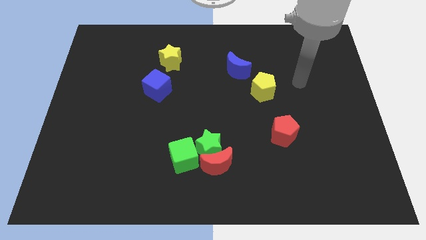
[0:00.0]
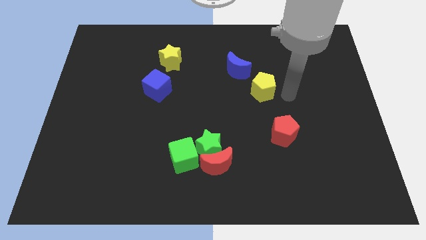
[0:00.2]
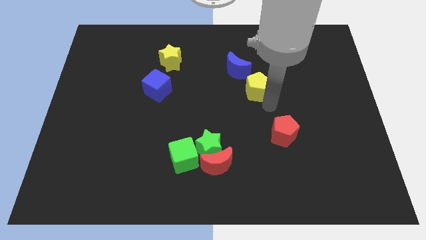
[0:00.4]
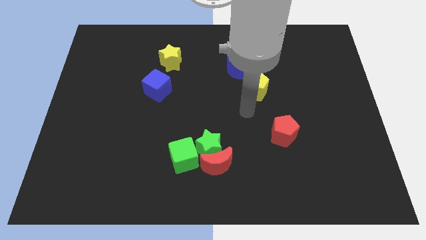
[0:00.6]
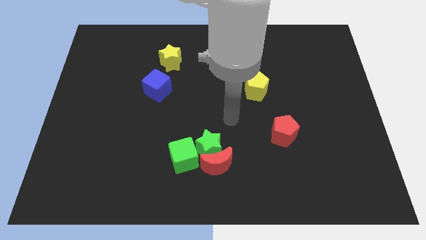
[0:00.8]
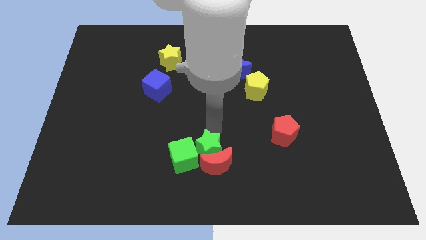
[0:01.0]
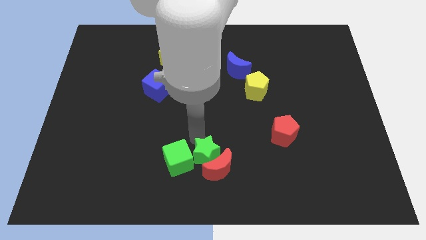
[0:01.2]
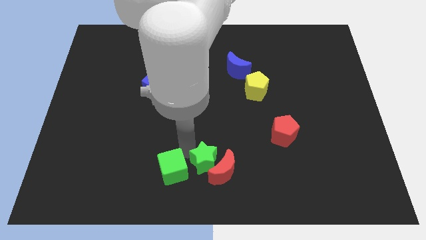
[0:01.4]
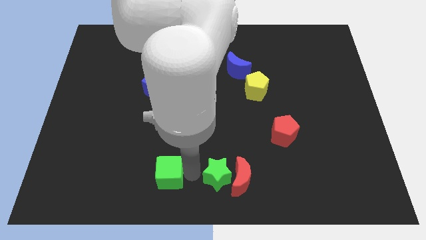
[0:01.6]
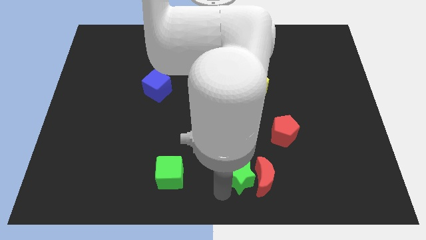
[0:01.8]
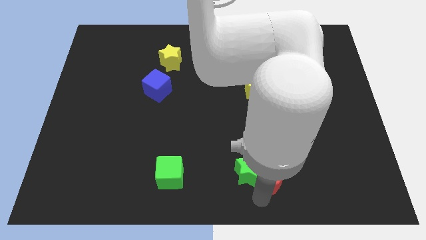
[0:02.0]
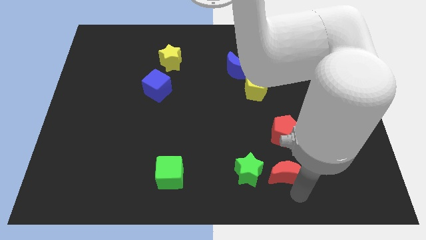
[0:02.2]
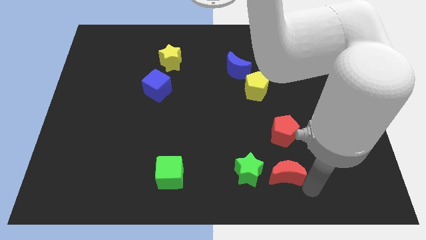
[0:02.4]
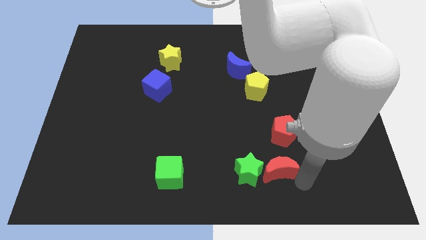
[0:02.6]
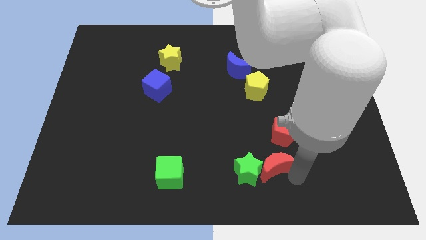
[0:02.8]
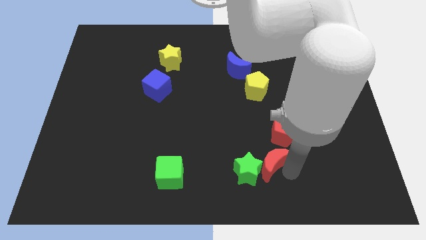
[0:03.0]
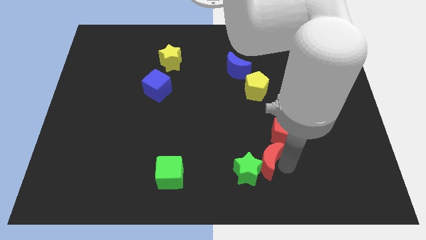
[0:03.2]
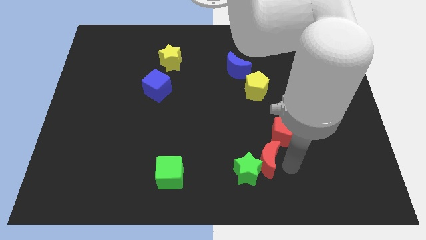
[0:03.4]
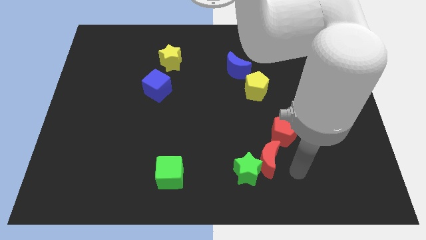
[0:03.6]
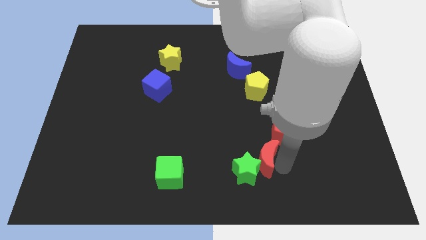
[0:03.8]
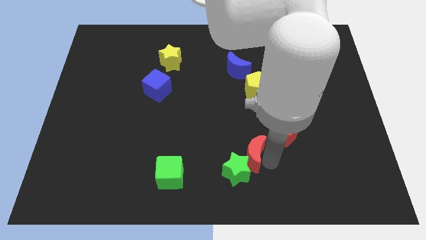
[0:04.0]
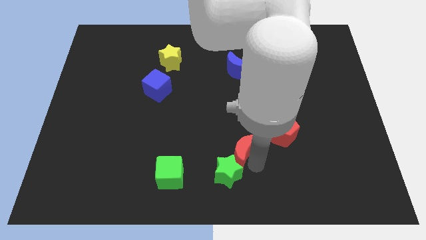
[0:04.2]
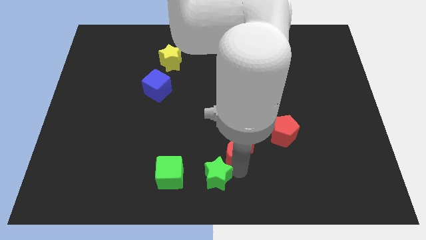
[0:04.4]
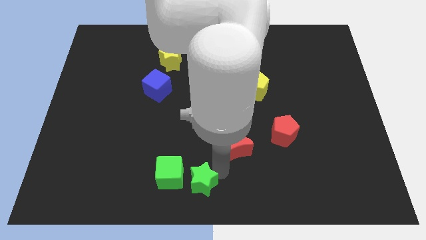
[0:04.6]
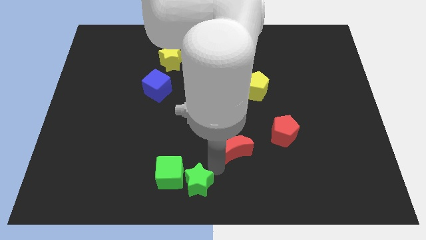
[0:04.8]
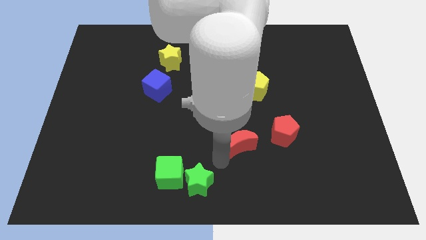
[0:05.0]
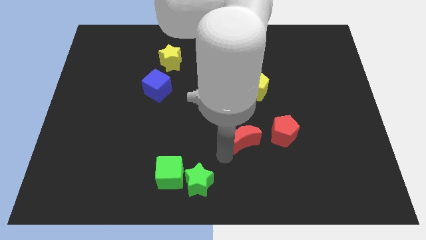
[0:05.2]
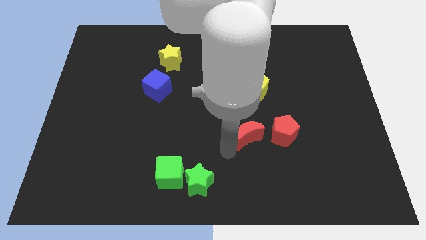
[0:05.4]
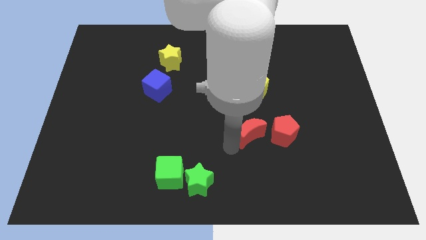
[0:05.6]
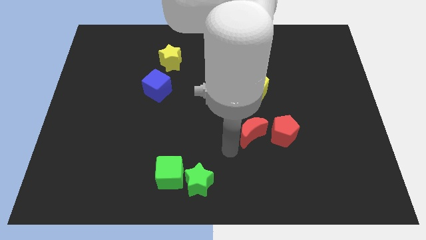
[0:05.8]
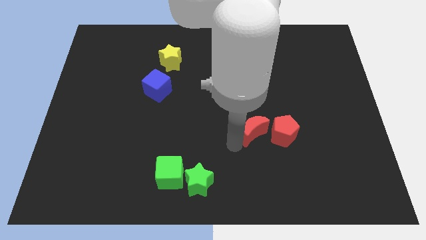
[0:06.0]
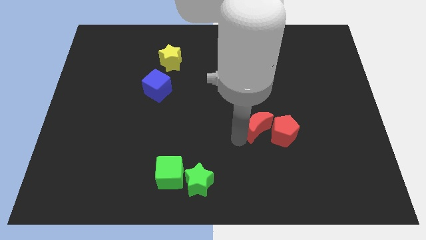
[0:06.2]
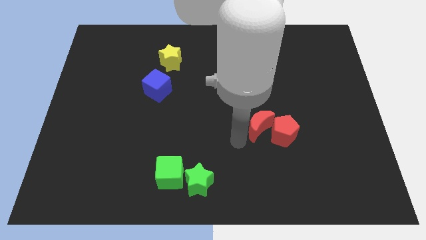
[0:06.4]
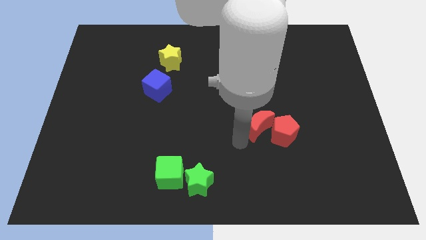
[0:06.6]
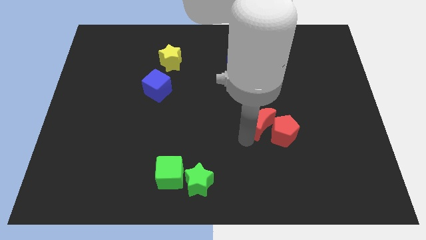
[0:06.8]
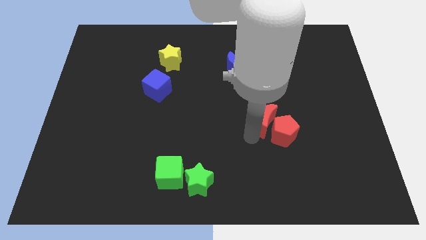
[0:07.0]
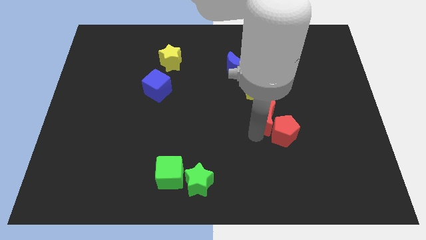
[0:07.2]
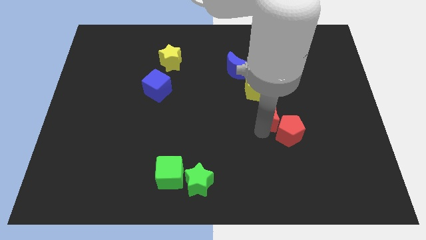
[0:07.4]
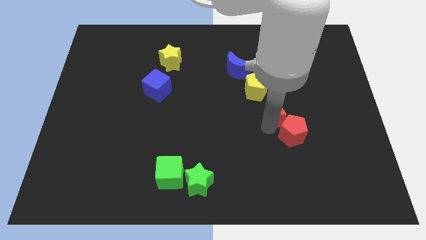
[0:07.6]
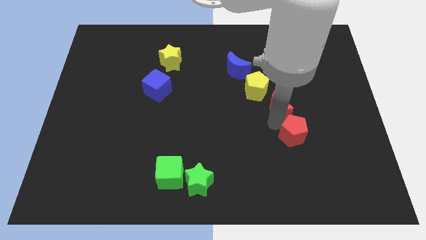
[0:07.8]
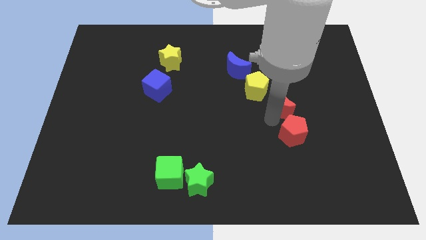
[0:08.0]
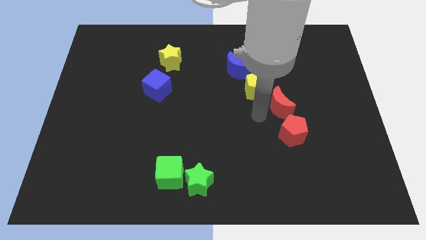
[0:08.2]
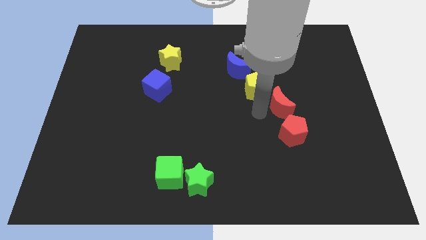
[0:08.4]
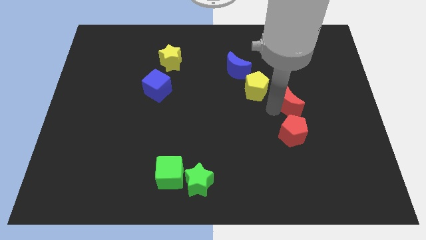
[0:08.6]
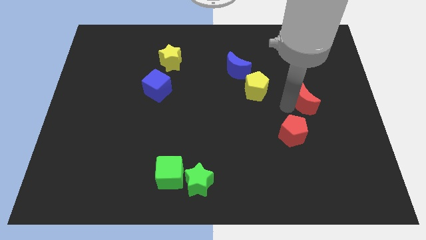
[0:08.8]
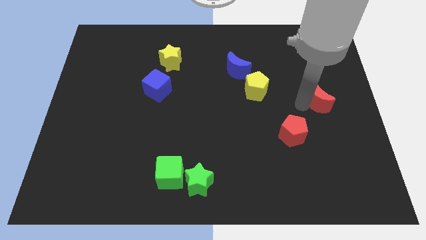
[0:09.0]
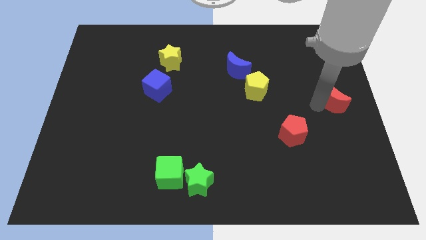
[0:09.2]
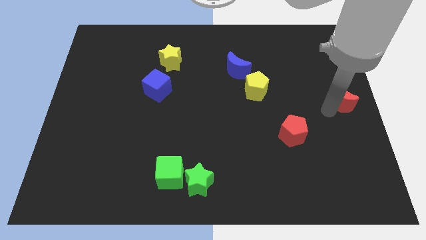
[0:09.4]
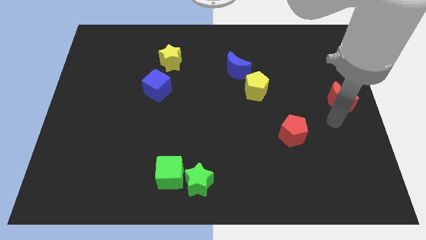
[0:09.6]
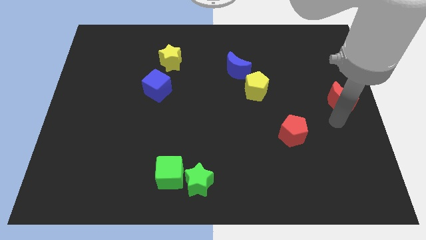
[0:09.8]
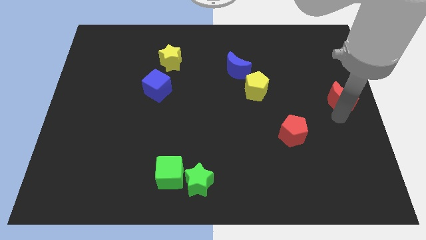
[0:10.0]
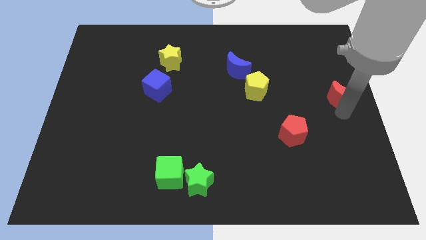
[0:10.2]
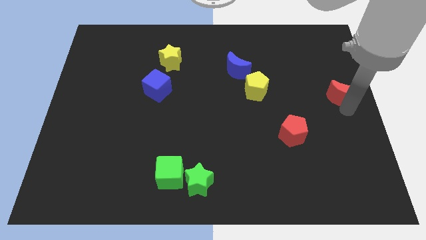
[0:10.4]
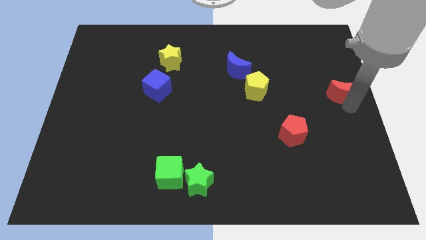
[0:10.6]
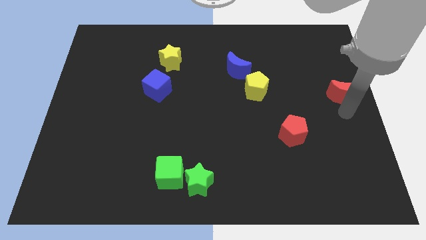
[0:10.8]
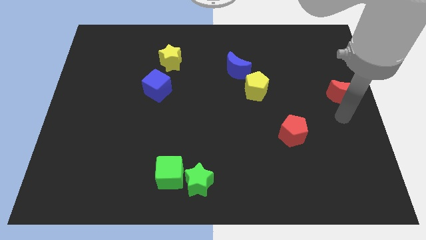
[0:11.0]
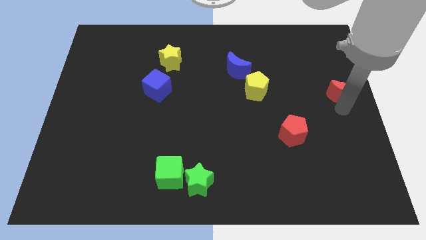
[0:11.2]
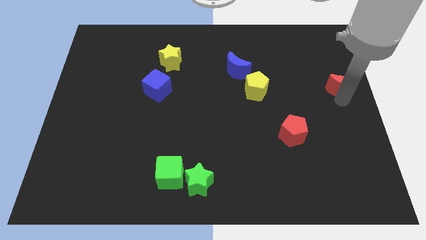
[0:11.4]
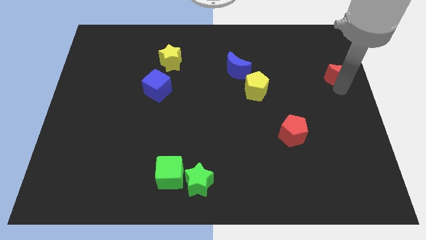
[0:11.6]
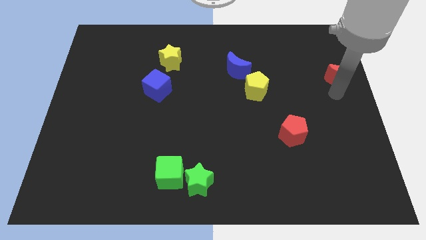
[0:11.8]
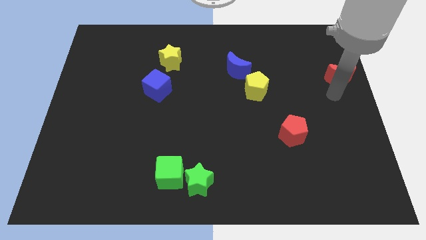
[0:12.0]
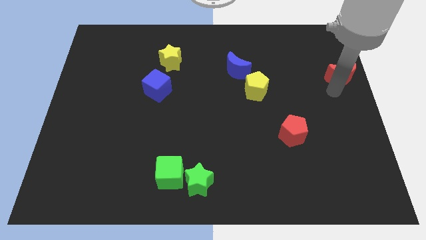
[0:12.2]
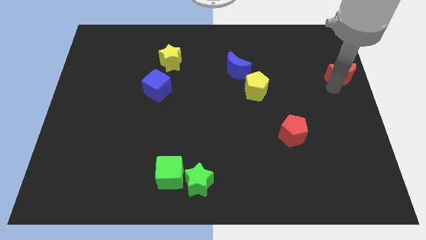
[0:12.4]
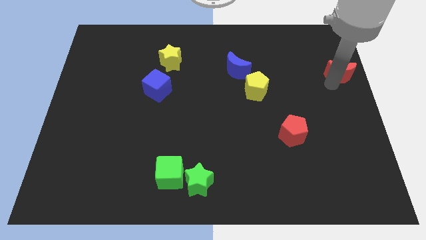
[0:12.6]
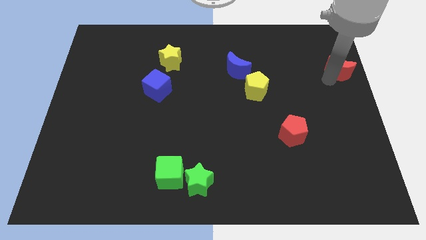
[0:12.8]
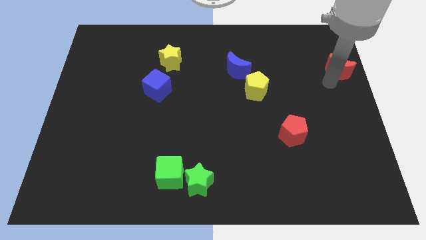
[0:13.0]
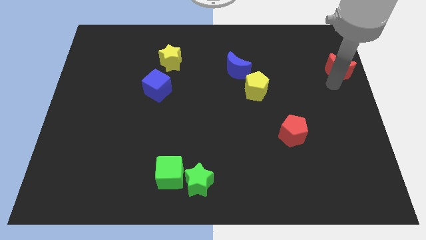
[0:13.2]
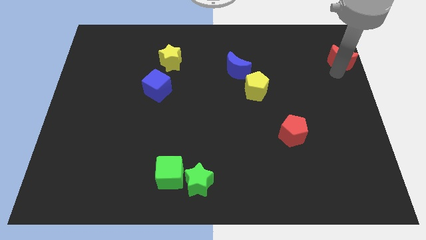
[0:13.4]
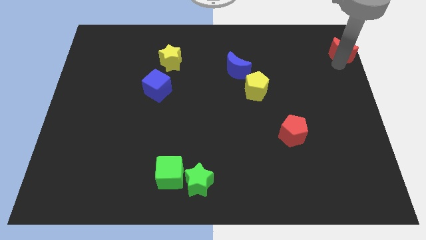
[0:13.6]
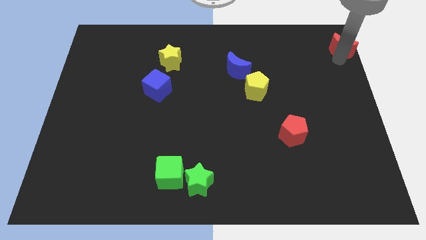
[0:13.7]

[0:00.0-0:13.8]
move the red moon to the upper right corner
